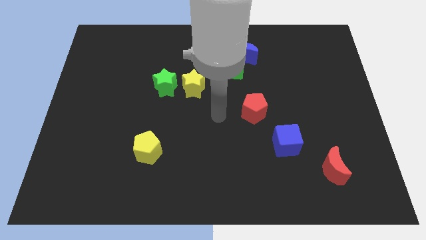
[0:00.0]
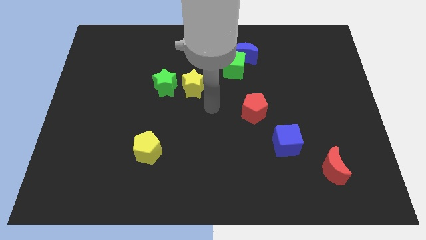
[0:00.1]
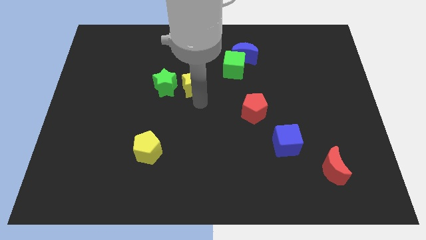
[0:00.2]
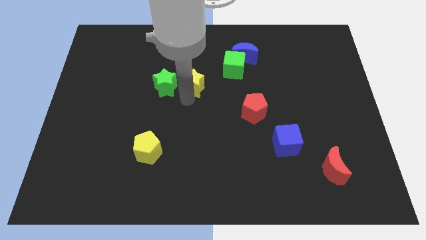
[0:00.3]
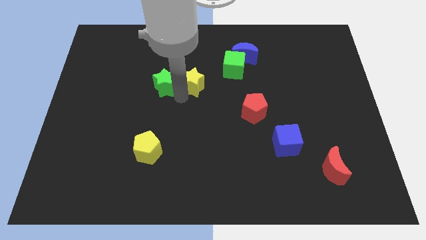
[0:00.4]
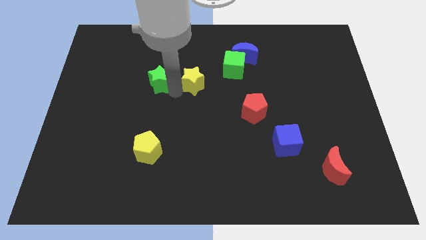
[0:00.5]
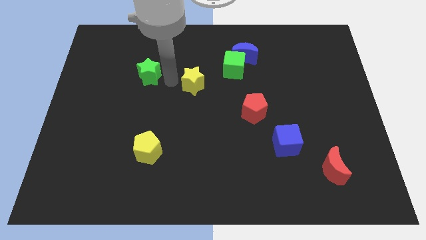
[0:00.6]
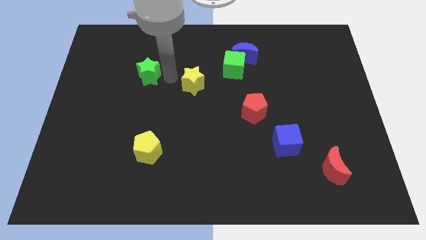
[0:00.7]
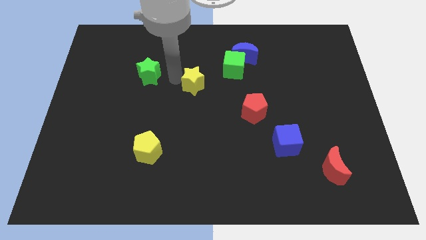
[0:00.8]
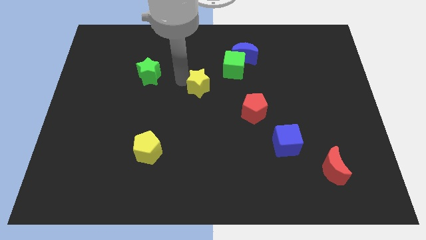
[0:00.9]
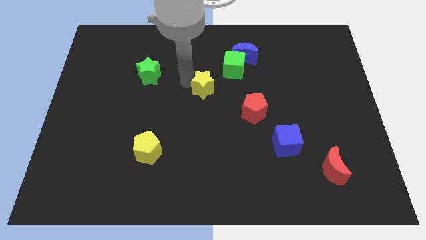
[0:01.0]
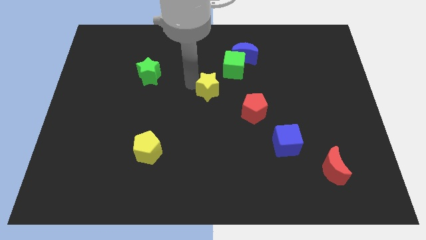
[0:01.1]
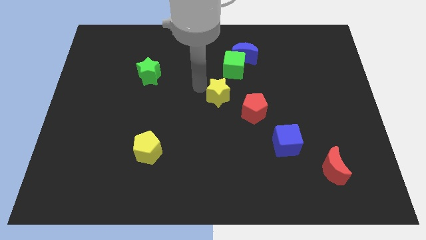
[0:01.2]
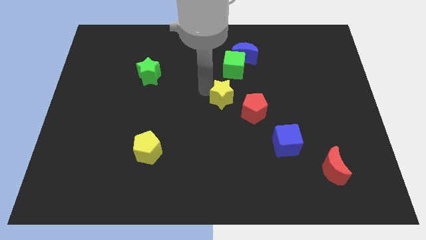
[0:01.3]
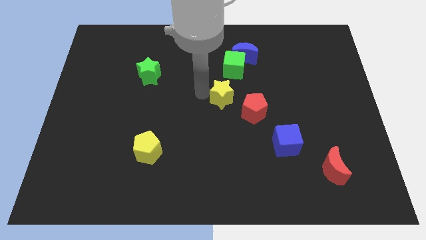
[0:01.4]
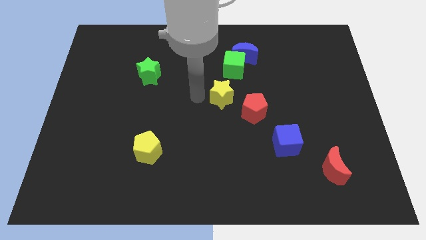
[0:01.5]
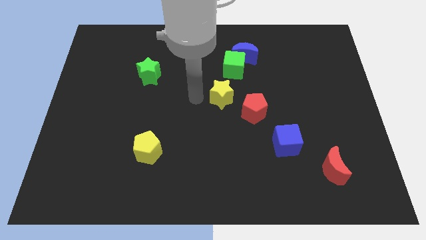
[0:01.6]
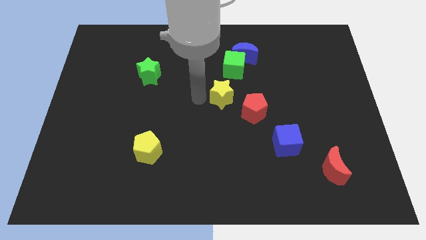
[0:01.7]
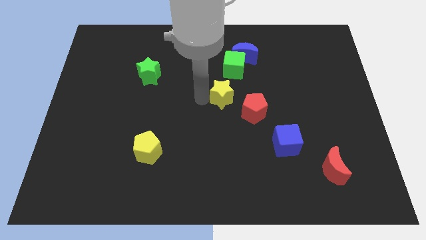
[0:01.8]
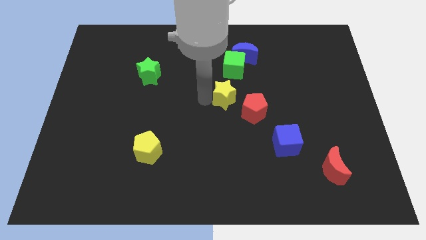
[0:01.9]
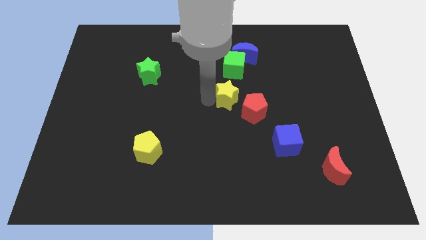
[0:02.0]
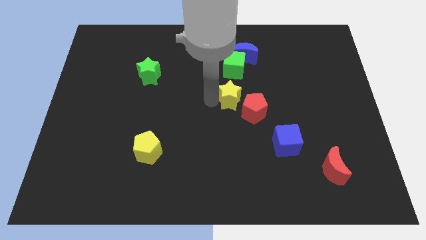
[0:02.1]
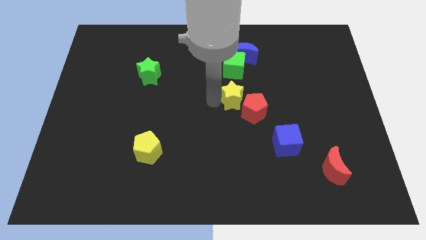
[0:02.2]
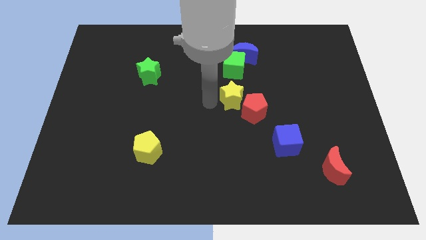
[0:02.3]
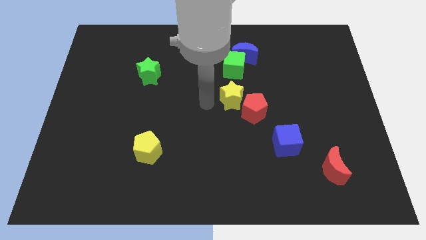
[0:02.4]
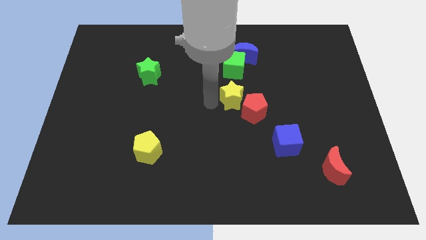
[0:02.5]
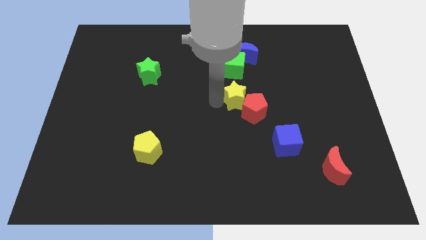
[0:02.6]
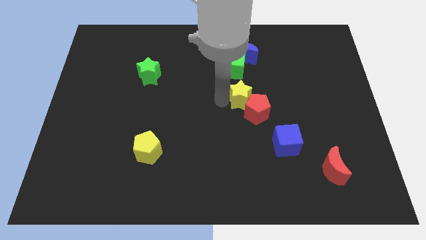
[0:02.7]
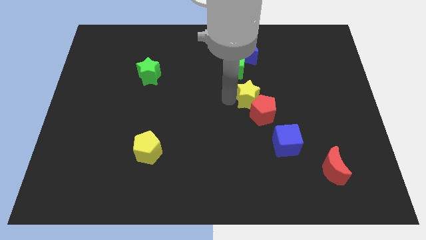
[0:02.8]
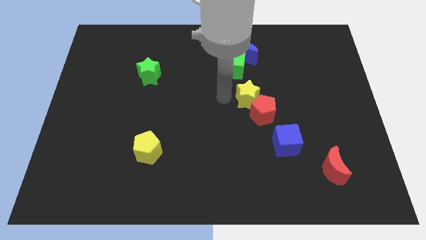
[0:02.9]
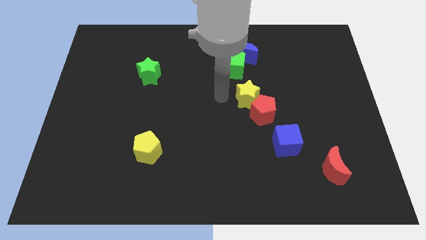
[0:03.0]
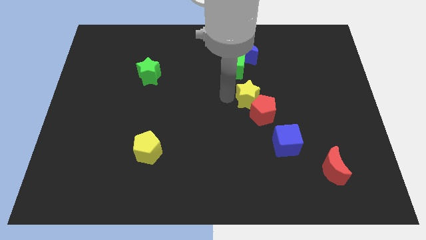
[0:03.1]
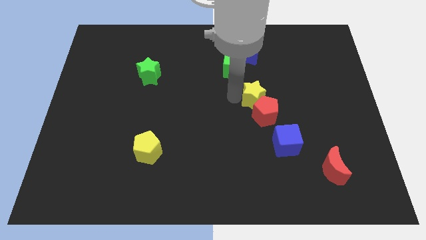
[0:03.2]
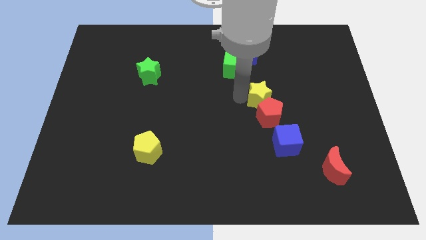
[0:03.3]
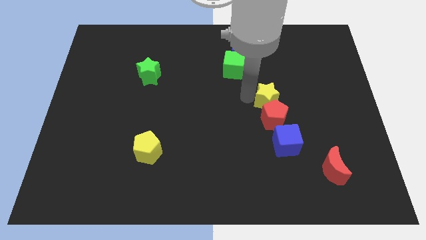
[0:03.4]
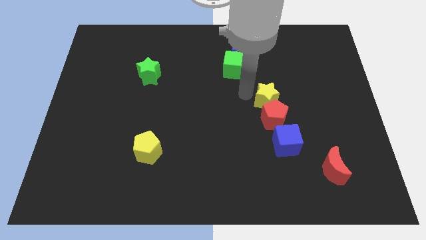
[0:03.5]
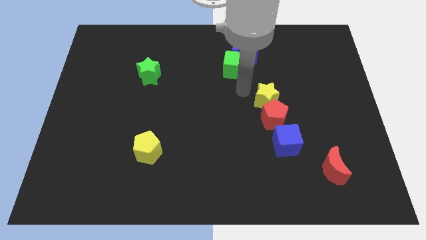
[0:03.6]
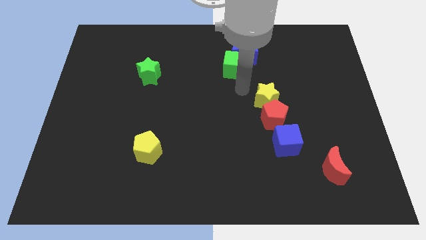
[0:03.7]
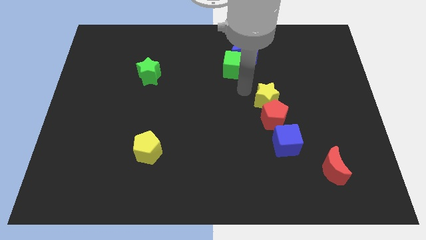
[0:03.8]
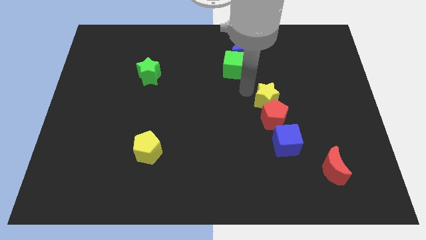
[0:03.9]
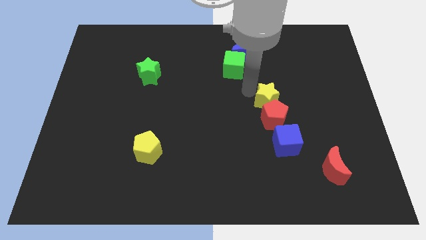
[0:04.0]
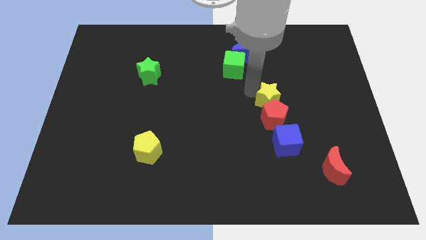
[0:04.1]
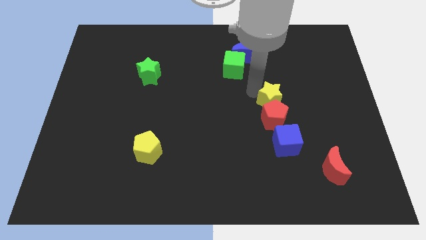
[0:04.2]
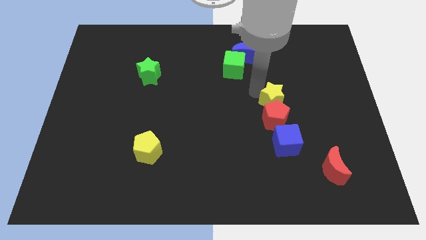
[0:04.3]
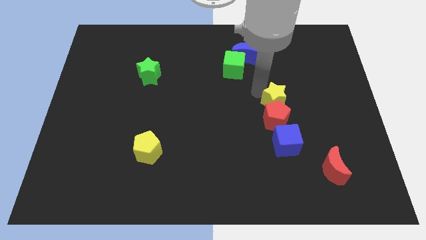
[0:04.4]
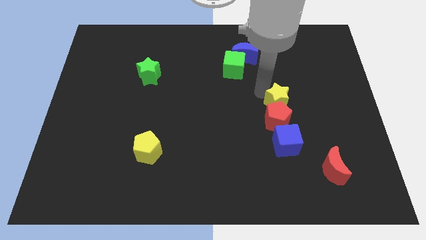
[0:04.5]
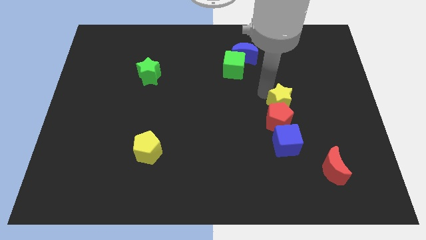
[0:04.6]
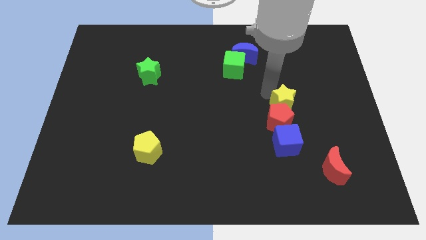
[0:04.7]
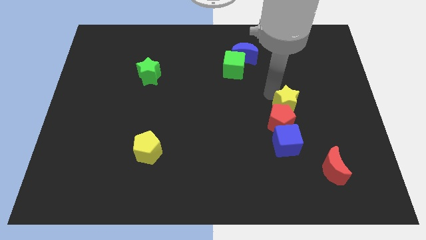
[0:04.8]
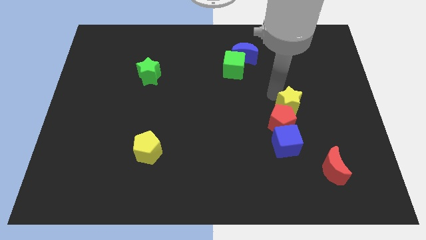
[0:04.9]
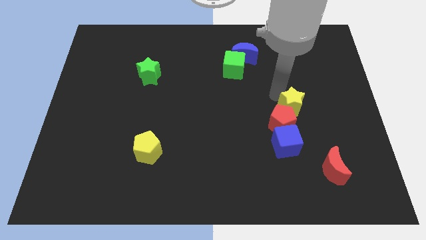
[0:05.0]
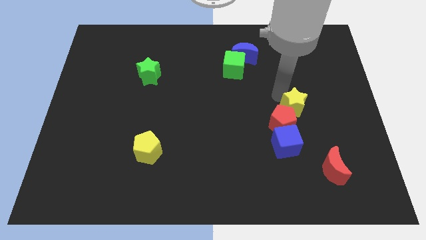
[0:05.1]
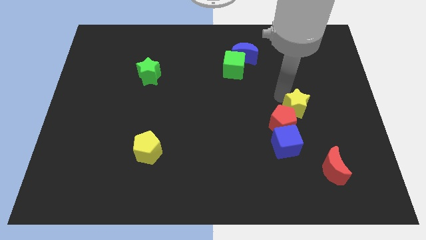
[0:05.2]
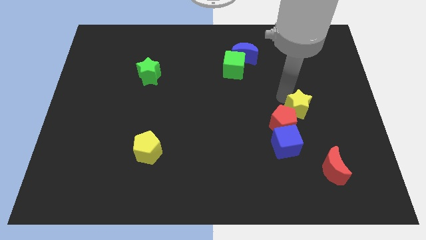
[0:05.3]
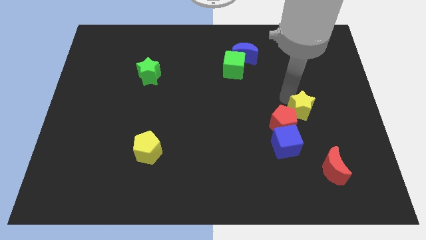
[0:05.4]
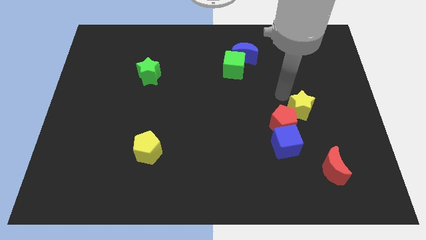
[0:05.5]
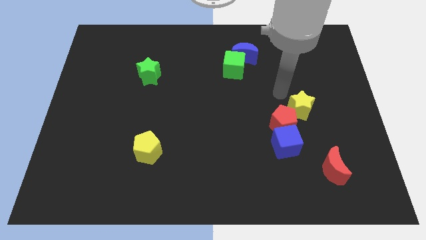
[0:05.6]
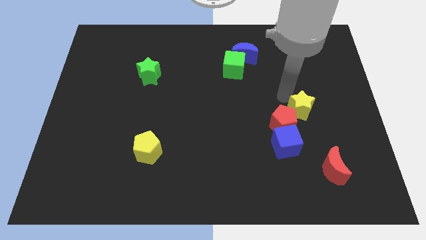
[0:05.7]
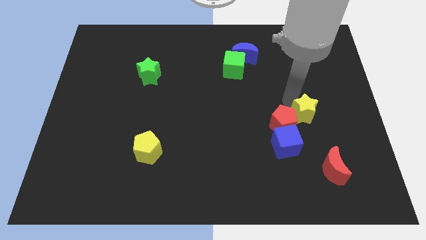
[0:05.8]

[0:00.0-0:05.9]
move the yellow star above the red moon
